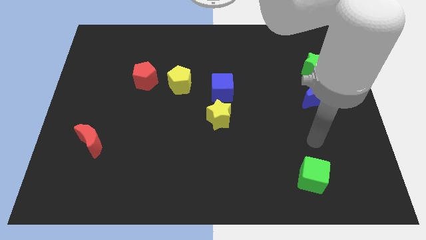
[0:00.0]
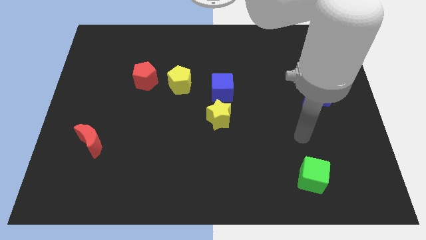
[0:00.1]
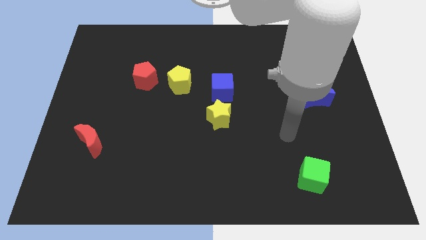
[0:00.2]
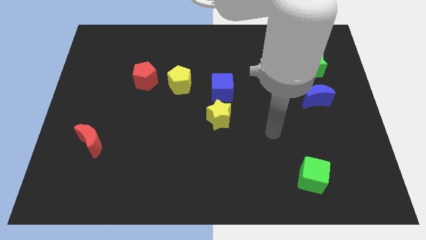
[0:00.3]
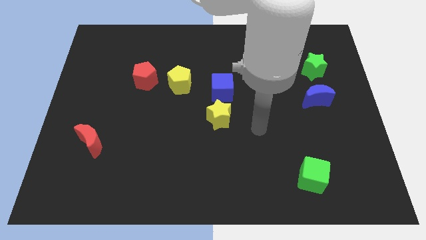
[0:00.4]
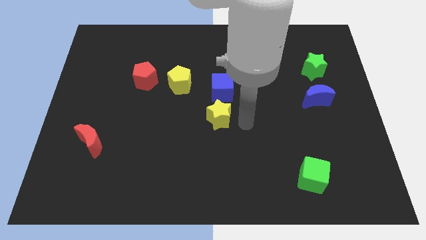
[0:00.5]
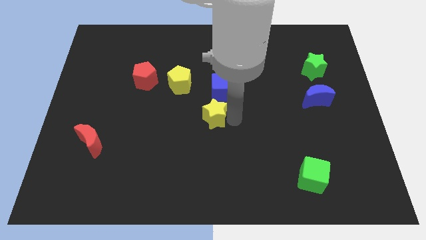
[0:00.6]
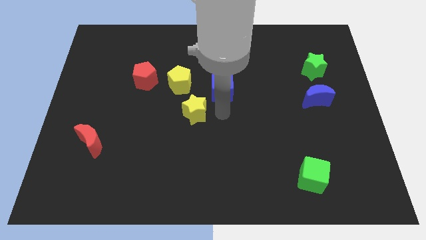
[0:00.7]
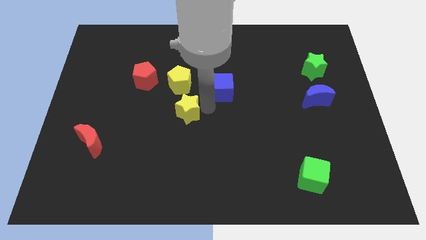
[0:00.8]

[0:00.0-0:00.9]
separate the blue cube from the yellow star

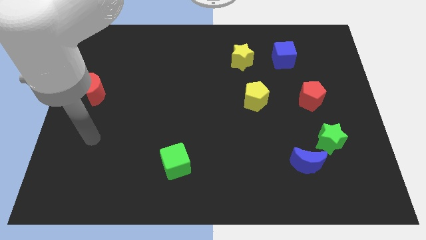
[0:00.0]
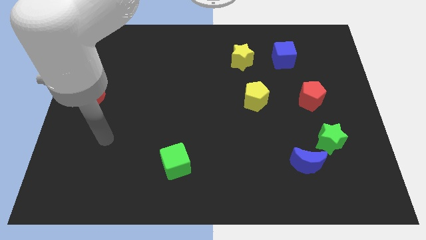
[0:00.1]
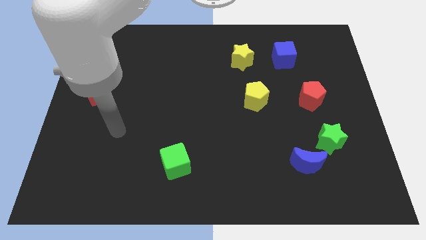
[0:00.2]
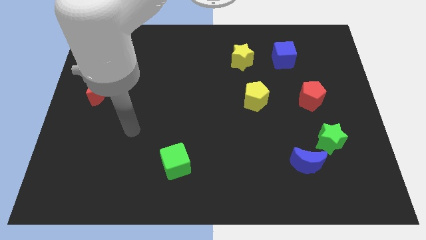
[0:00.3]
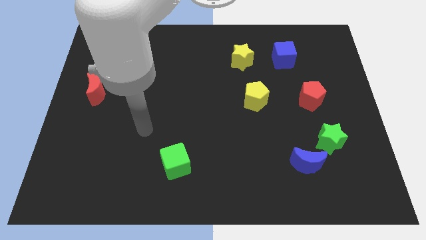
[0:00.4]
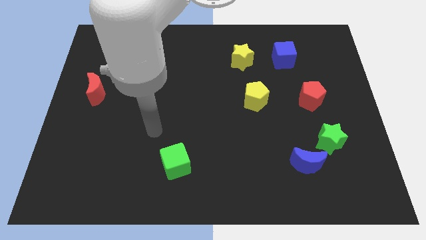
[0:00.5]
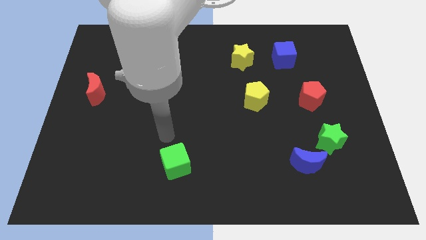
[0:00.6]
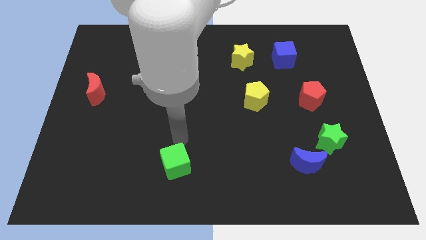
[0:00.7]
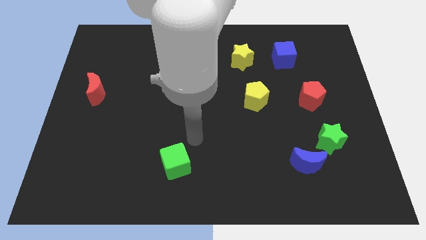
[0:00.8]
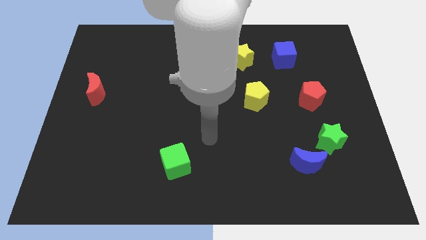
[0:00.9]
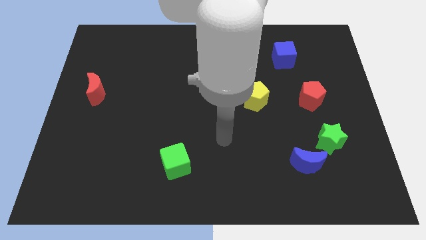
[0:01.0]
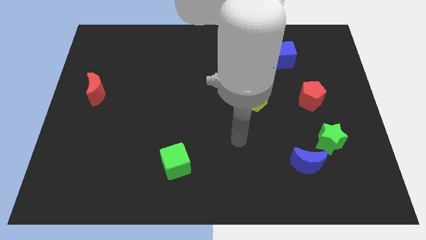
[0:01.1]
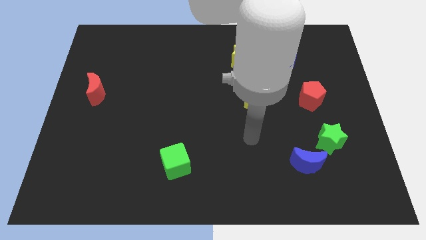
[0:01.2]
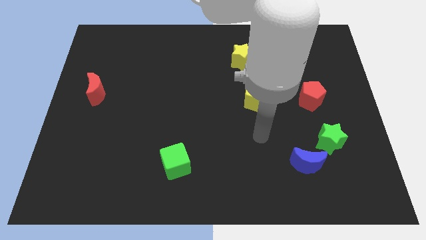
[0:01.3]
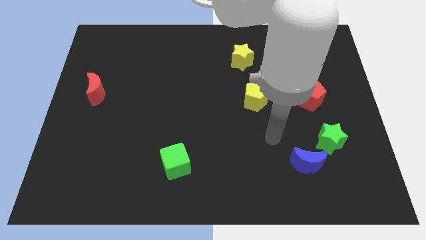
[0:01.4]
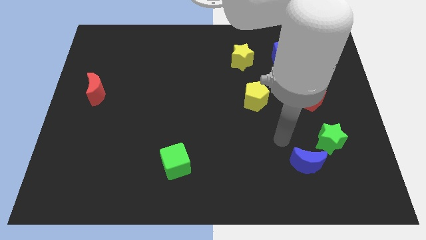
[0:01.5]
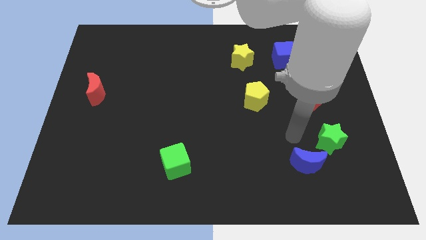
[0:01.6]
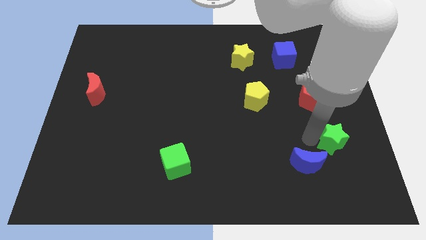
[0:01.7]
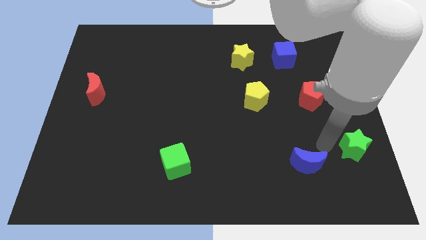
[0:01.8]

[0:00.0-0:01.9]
pull the blue moon apart from the green star

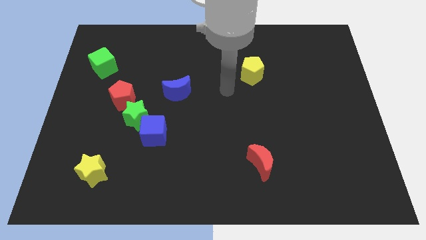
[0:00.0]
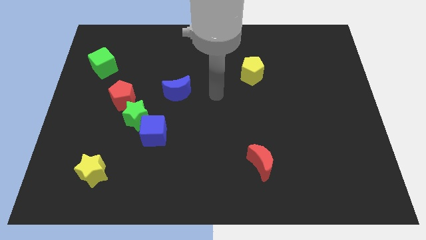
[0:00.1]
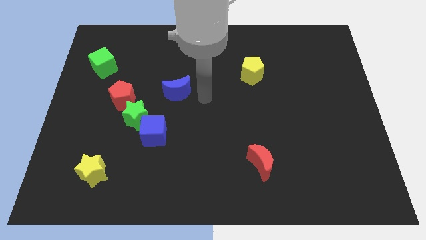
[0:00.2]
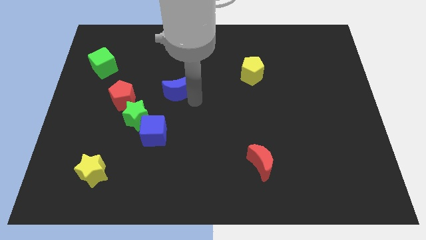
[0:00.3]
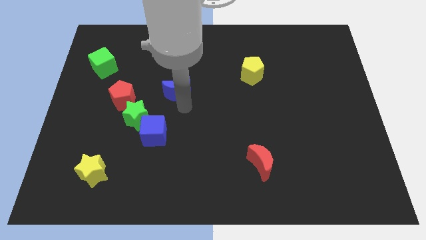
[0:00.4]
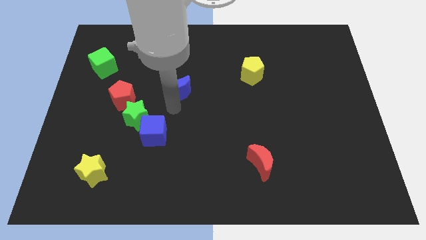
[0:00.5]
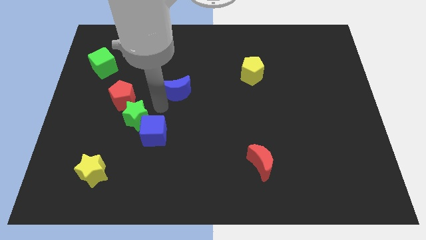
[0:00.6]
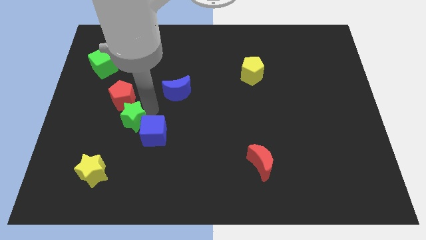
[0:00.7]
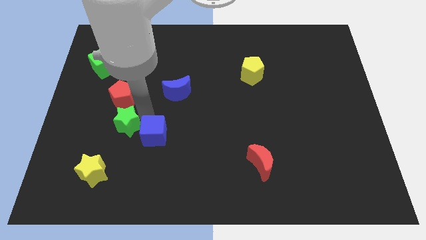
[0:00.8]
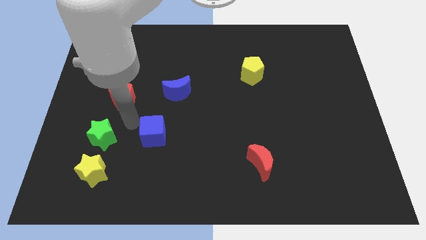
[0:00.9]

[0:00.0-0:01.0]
move the blue cube away from the green star

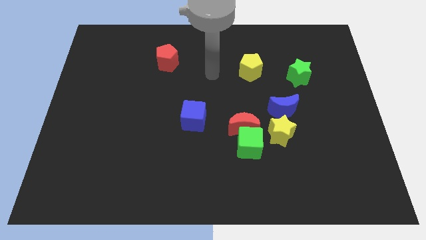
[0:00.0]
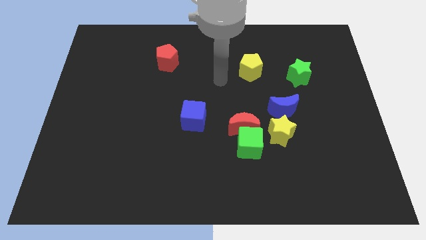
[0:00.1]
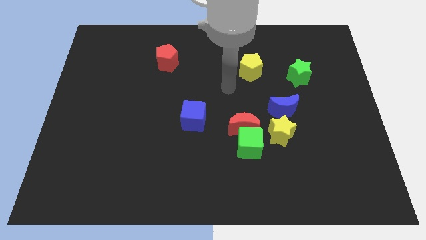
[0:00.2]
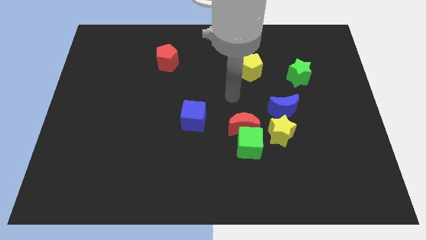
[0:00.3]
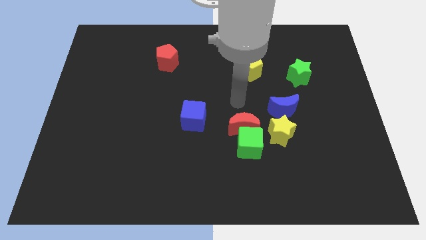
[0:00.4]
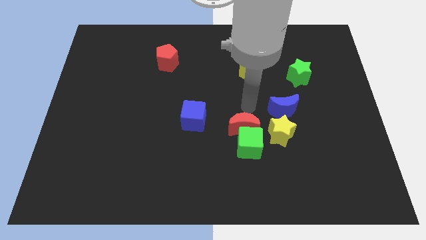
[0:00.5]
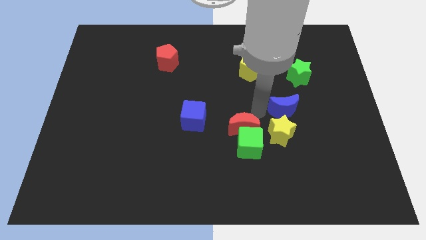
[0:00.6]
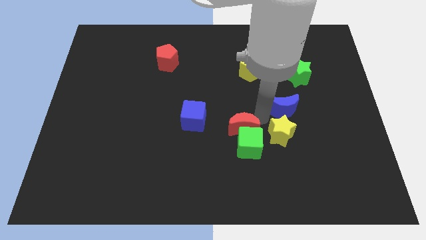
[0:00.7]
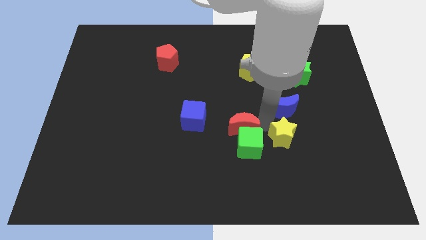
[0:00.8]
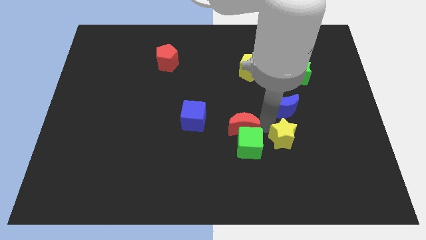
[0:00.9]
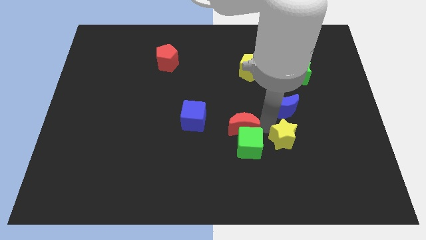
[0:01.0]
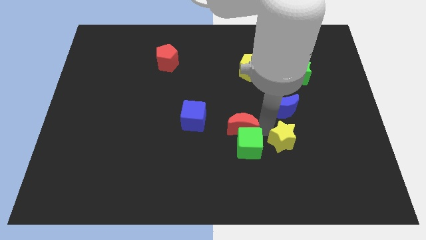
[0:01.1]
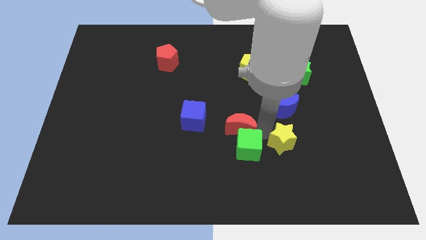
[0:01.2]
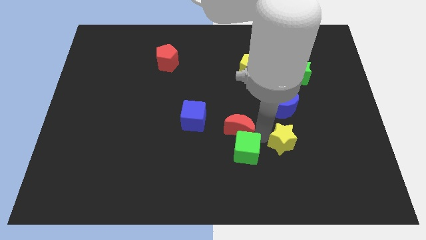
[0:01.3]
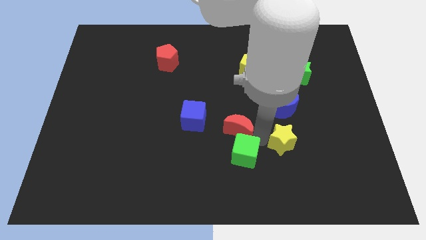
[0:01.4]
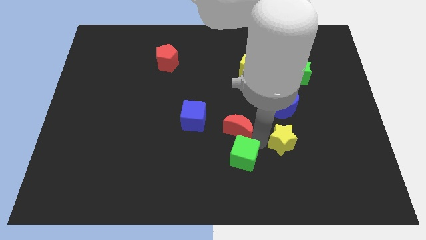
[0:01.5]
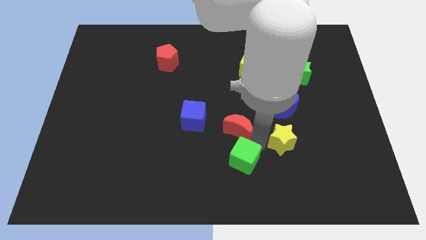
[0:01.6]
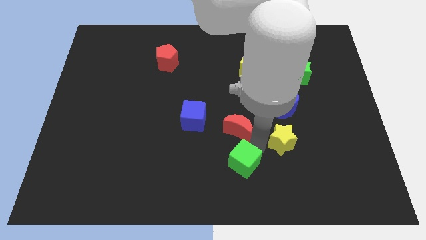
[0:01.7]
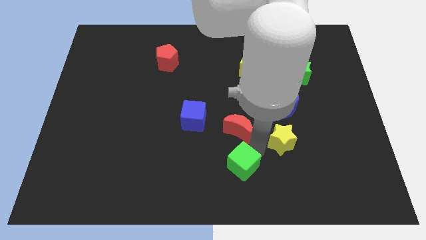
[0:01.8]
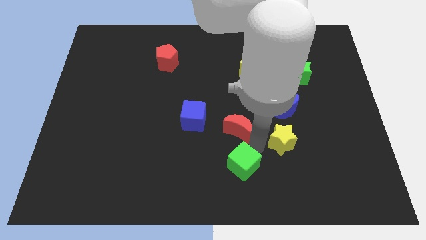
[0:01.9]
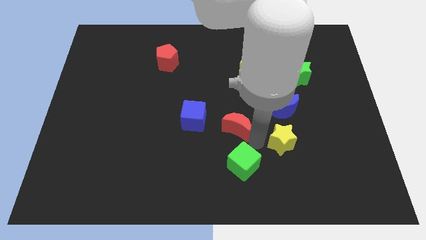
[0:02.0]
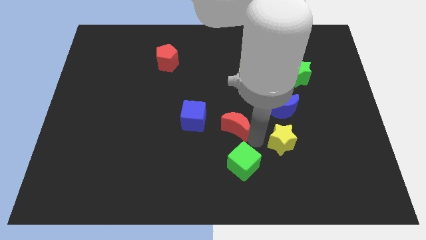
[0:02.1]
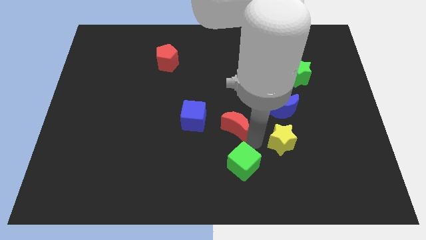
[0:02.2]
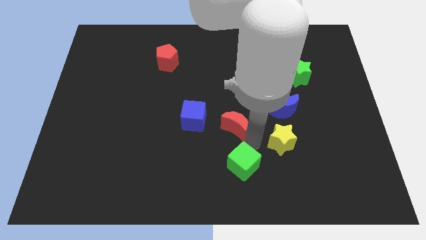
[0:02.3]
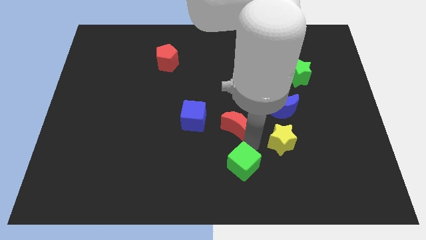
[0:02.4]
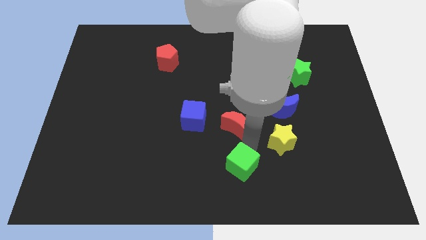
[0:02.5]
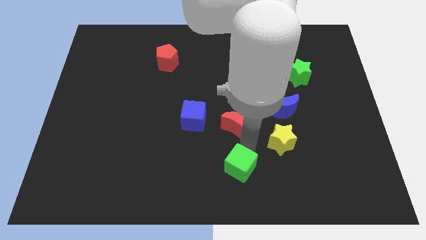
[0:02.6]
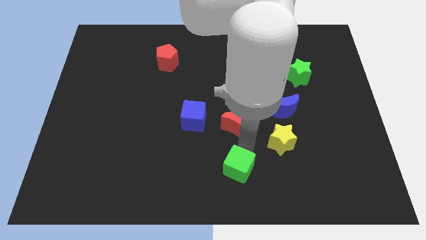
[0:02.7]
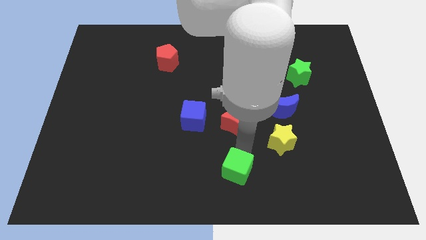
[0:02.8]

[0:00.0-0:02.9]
pull the green cube apart from the red moon and yellow star

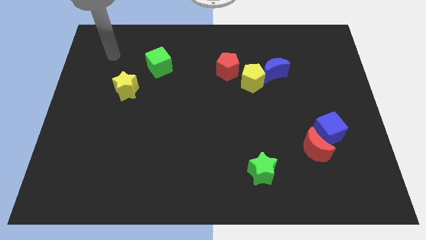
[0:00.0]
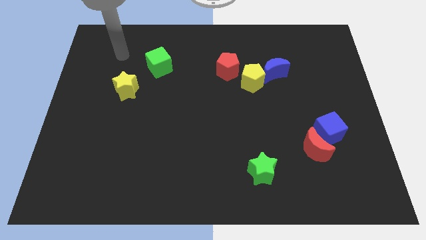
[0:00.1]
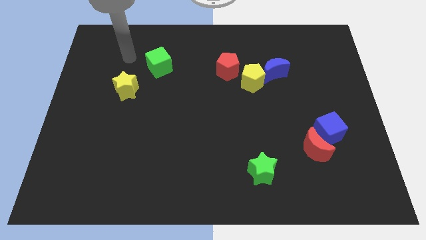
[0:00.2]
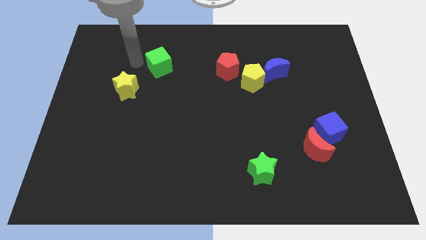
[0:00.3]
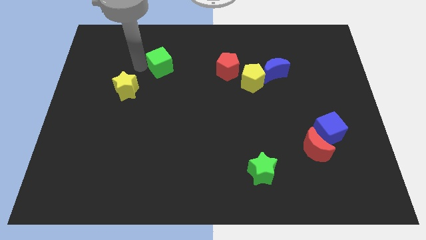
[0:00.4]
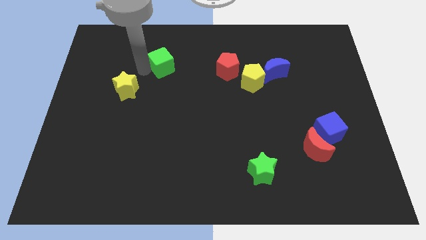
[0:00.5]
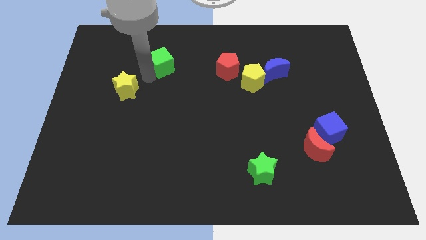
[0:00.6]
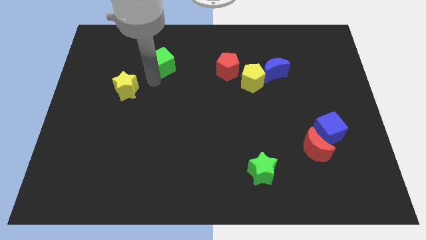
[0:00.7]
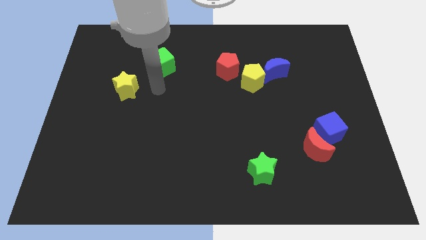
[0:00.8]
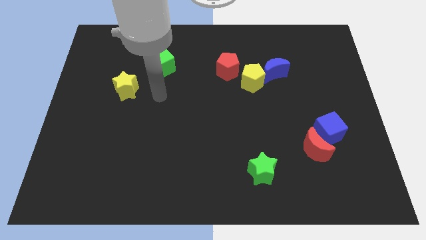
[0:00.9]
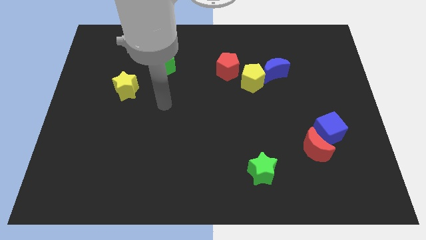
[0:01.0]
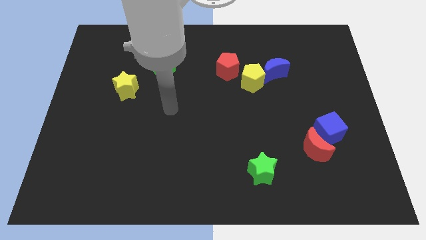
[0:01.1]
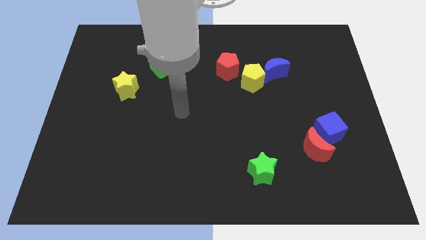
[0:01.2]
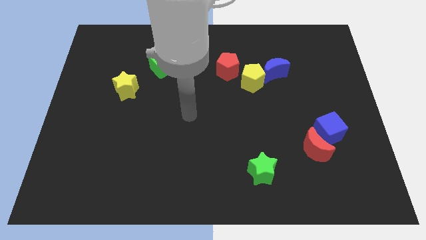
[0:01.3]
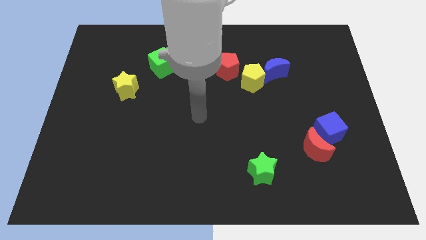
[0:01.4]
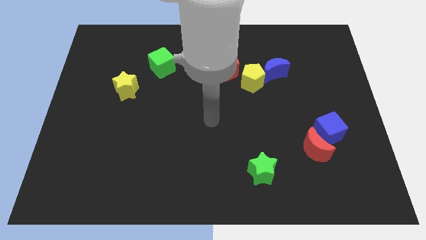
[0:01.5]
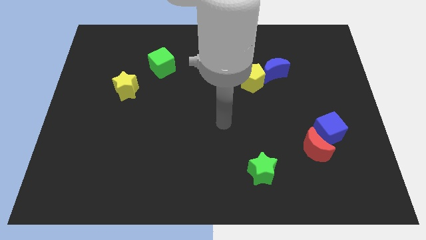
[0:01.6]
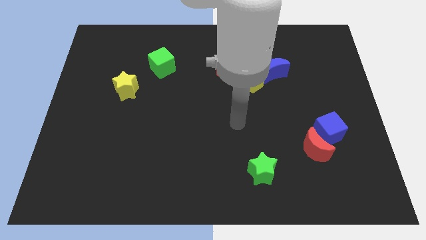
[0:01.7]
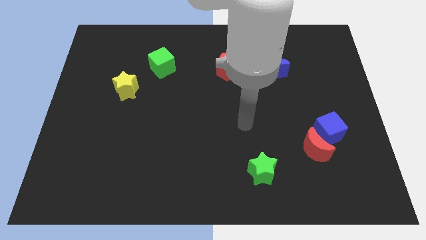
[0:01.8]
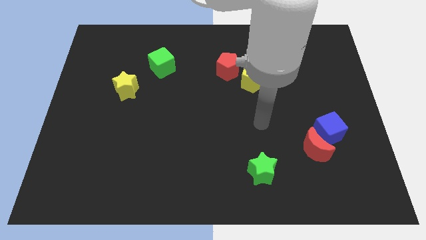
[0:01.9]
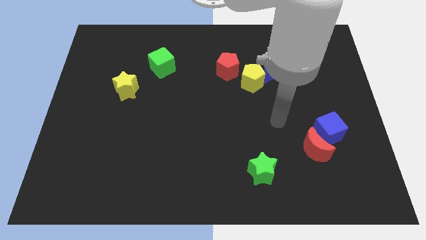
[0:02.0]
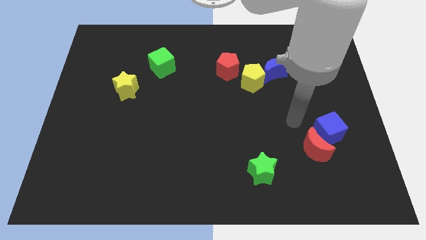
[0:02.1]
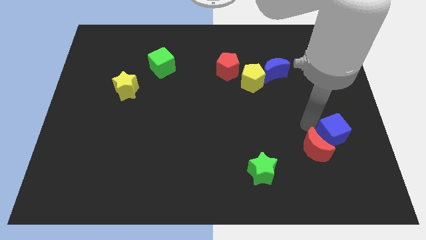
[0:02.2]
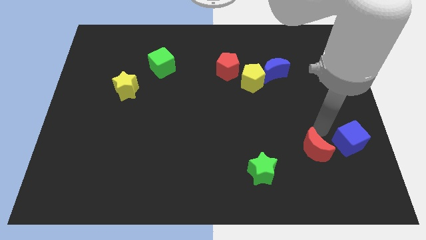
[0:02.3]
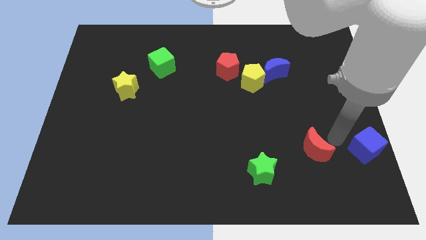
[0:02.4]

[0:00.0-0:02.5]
move the red moon away from the blue cube

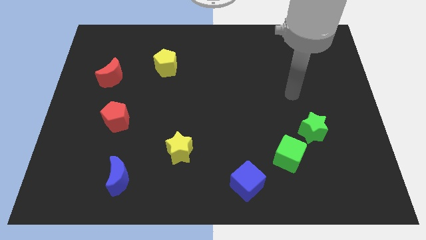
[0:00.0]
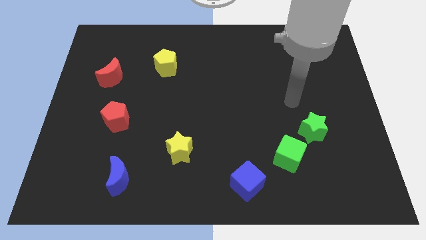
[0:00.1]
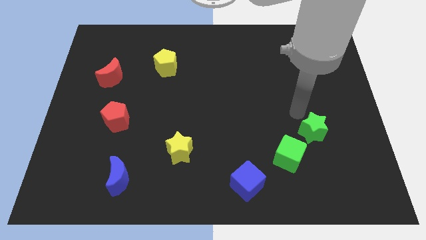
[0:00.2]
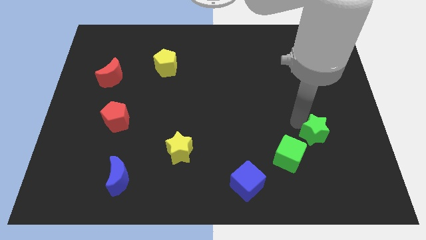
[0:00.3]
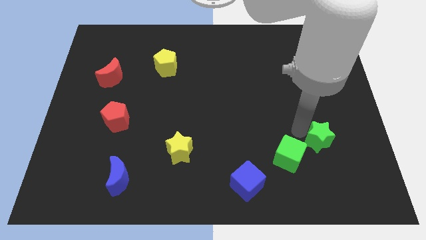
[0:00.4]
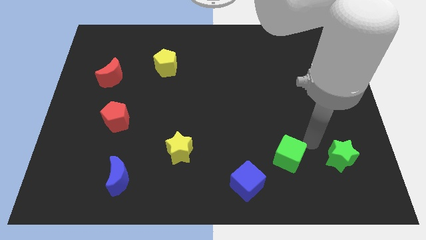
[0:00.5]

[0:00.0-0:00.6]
move the green cube away from the green star
